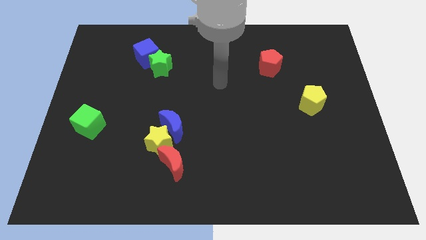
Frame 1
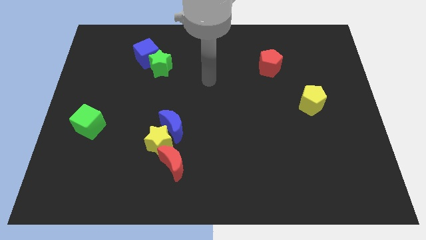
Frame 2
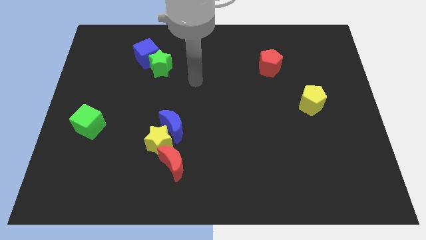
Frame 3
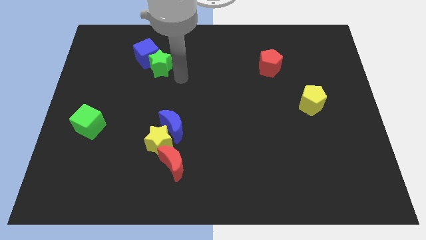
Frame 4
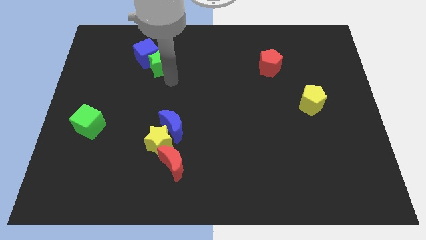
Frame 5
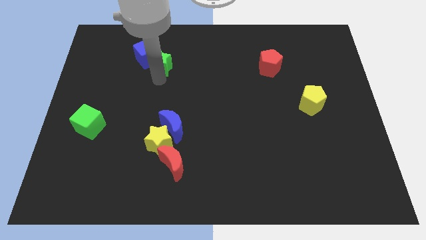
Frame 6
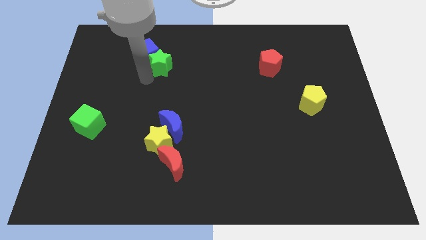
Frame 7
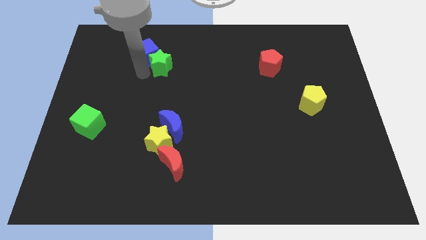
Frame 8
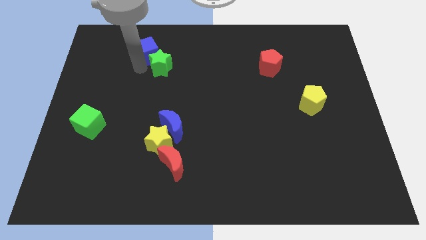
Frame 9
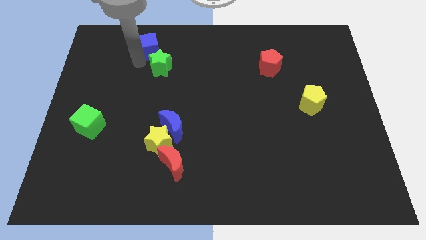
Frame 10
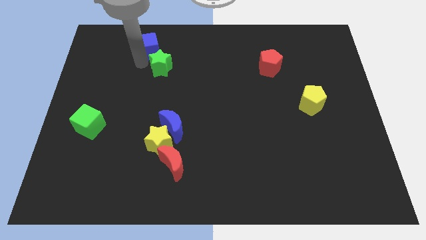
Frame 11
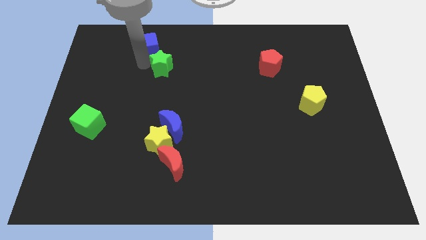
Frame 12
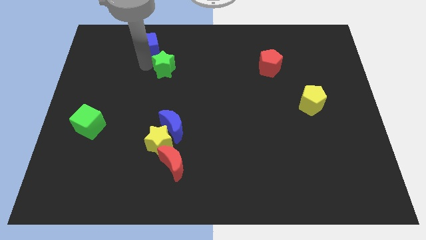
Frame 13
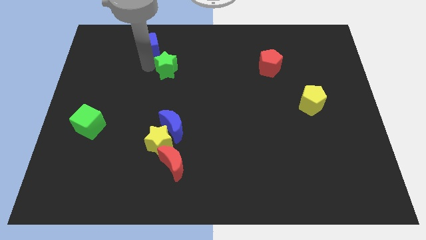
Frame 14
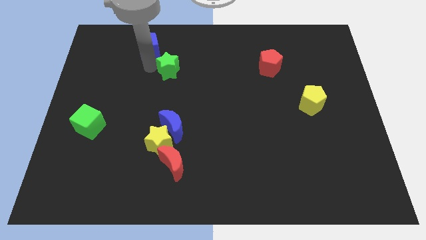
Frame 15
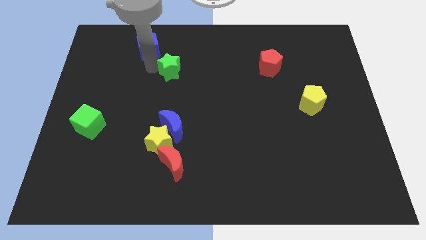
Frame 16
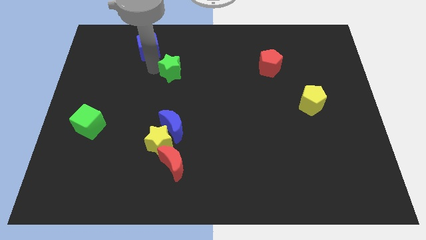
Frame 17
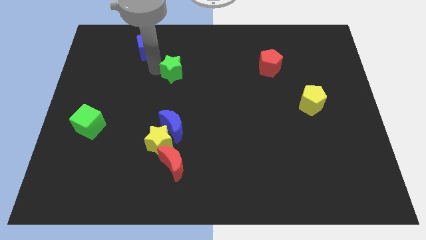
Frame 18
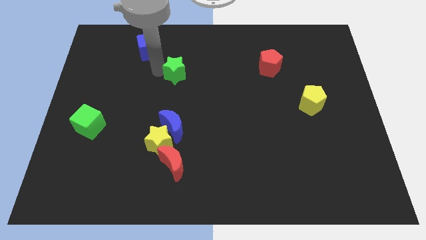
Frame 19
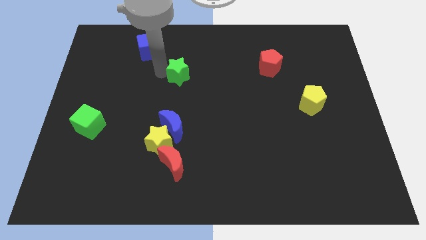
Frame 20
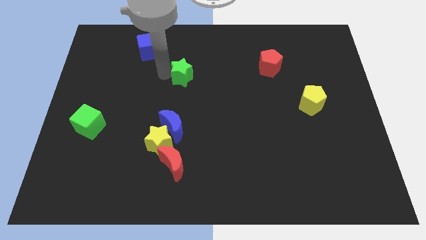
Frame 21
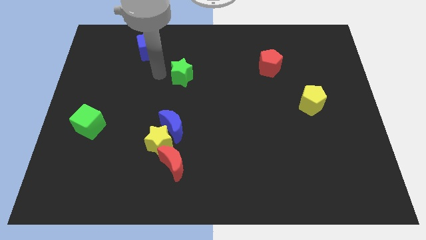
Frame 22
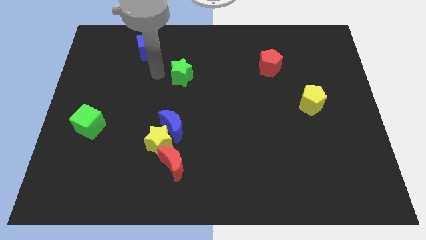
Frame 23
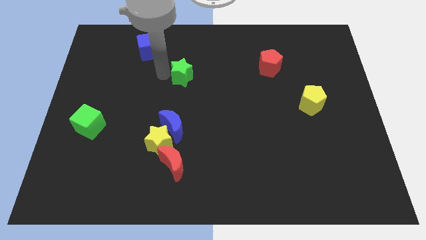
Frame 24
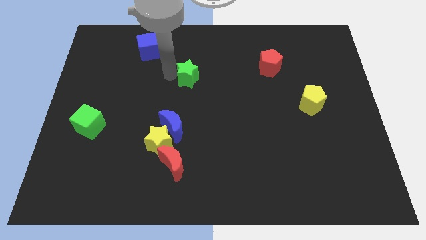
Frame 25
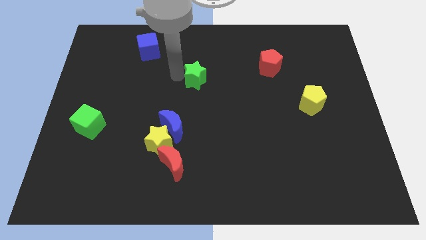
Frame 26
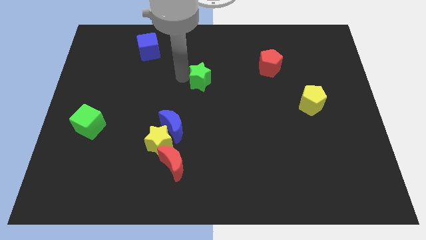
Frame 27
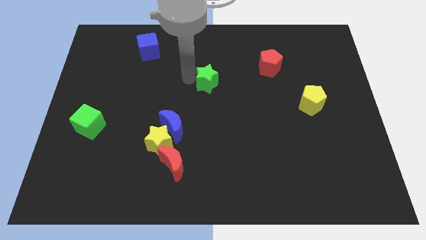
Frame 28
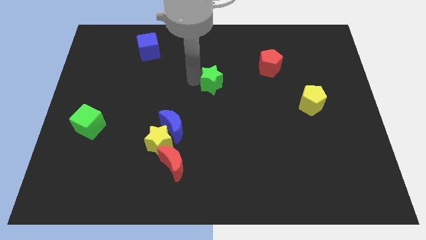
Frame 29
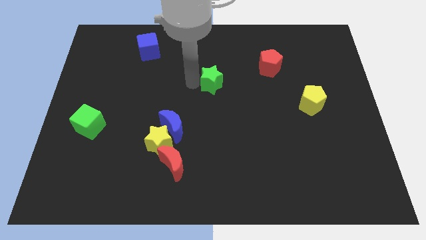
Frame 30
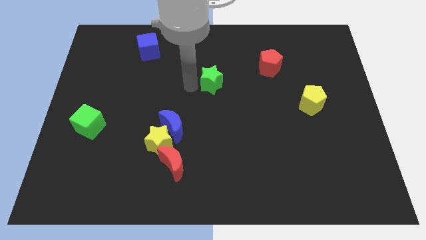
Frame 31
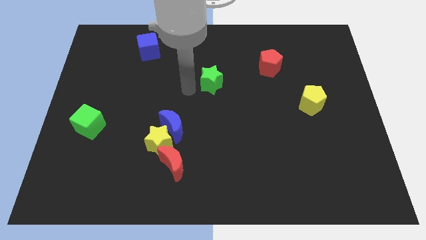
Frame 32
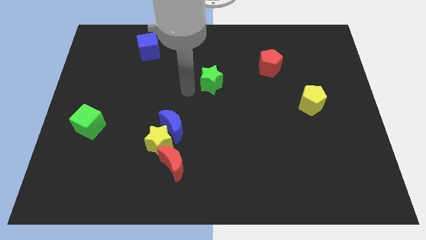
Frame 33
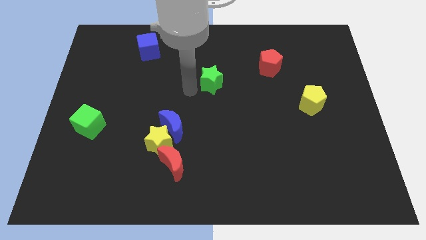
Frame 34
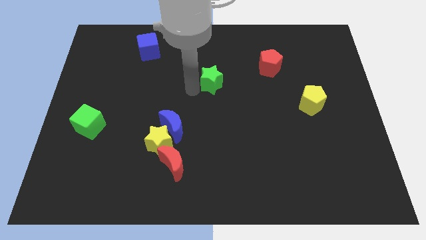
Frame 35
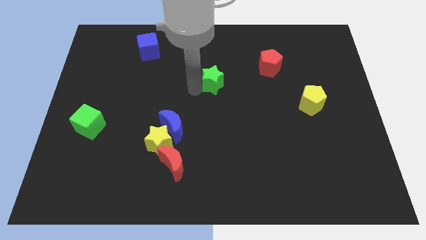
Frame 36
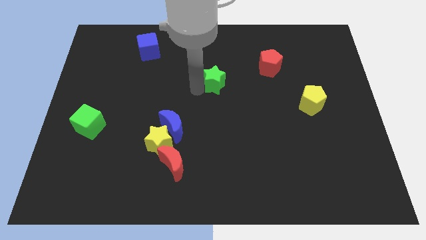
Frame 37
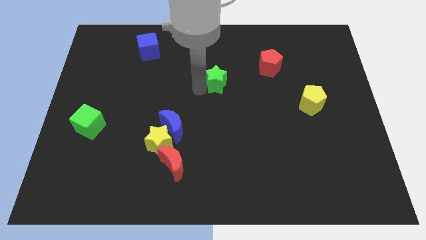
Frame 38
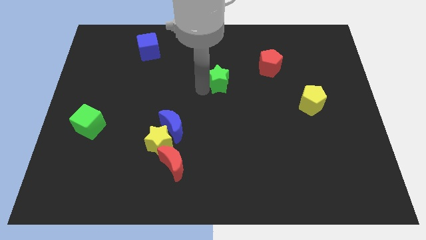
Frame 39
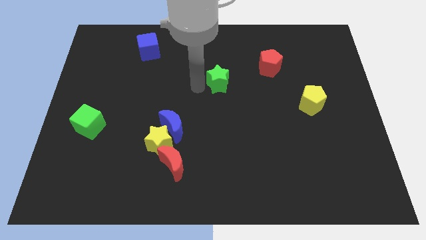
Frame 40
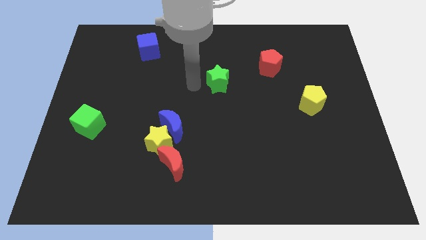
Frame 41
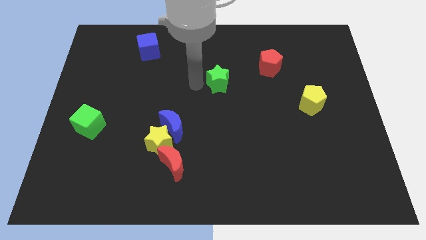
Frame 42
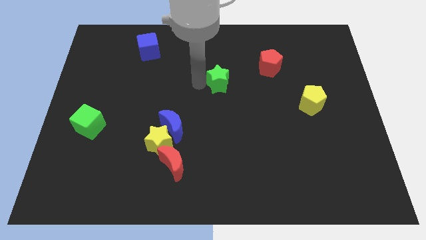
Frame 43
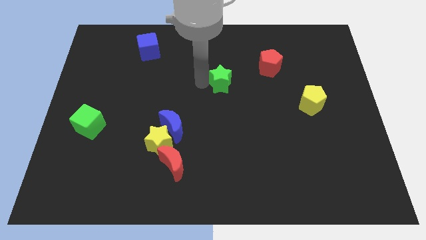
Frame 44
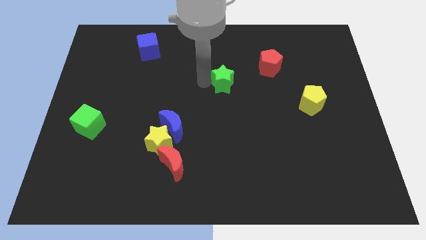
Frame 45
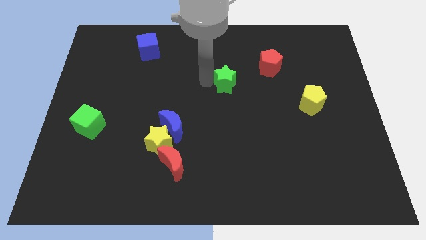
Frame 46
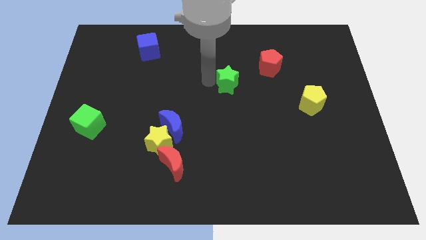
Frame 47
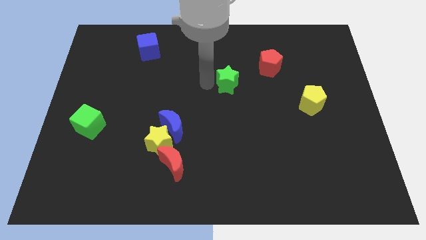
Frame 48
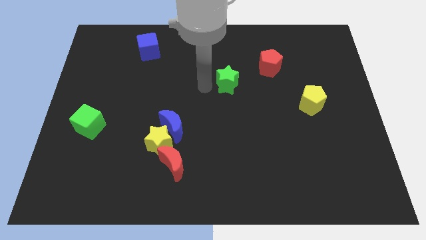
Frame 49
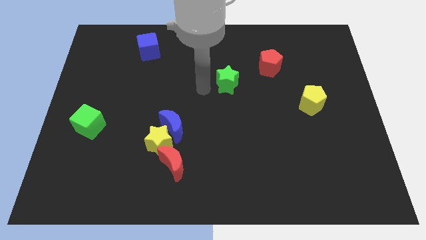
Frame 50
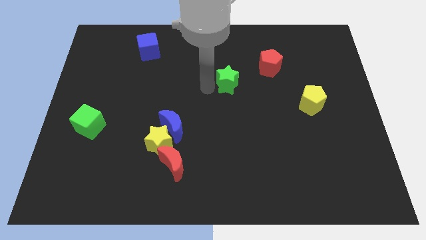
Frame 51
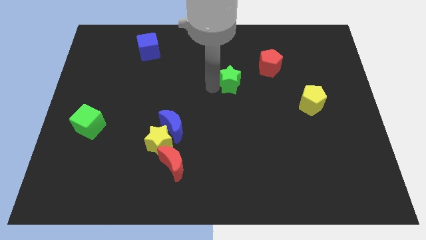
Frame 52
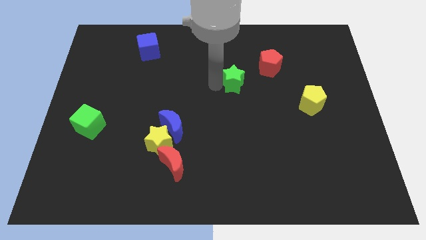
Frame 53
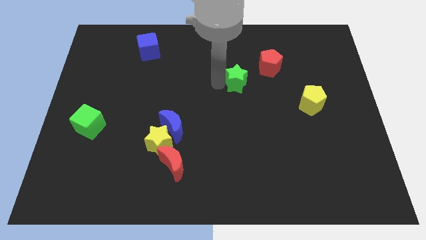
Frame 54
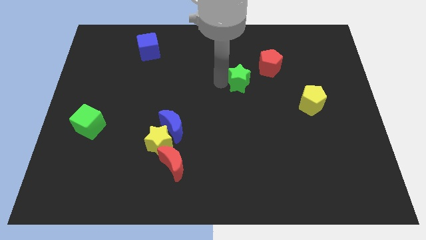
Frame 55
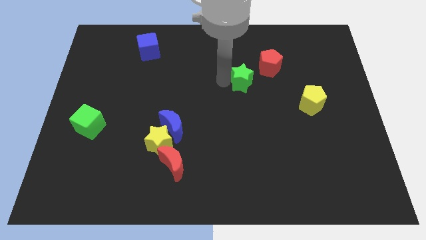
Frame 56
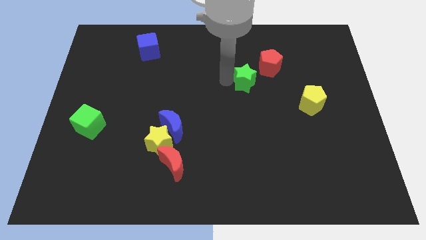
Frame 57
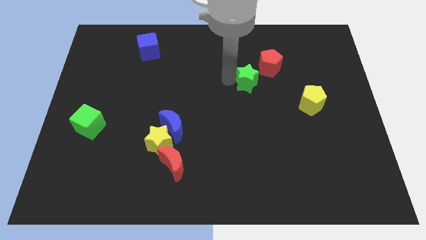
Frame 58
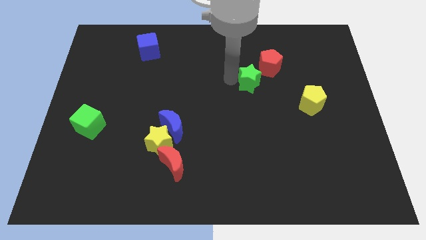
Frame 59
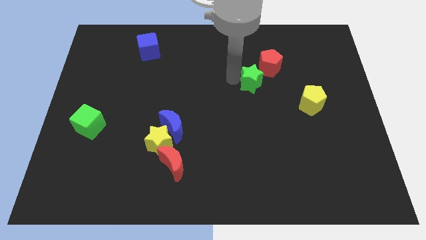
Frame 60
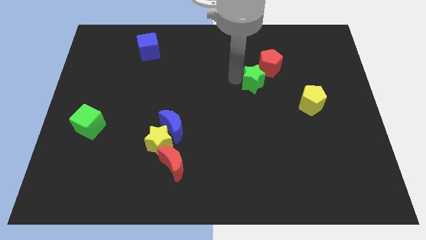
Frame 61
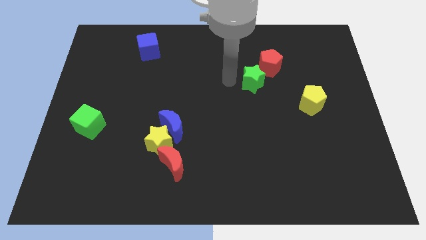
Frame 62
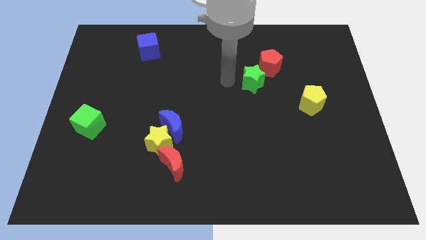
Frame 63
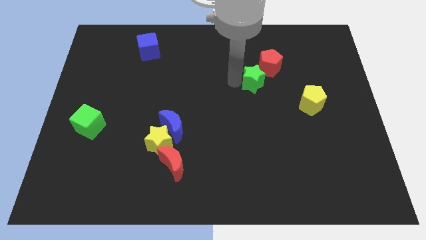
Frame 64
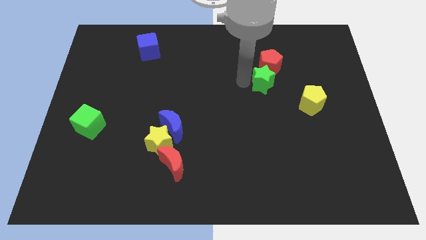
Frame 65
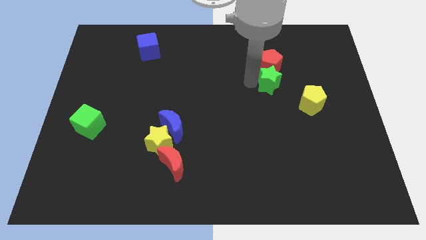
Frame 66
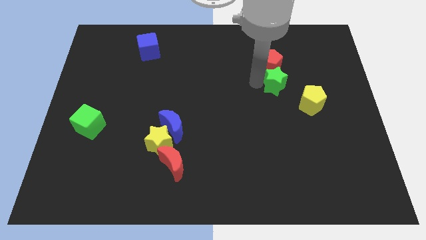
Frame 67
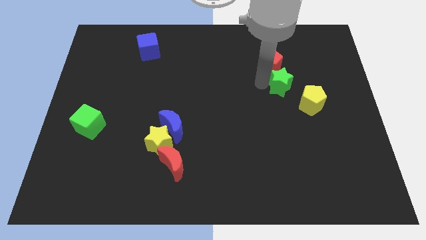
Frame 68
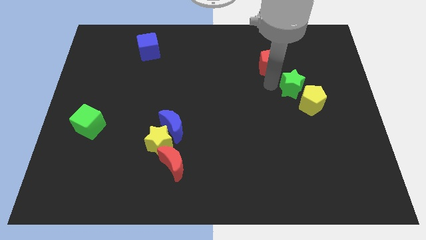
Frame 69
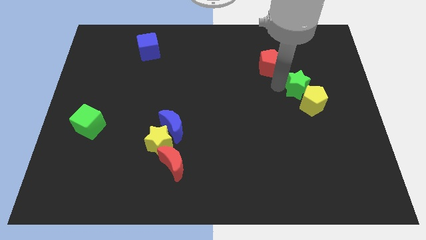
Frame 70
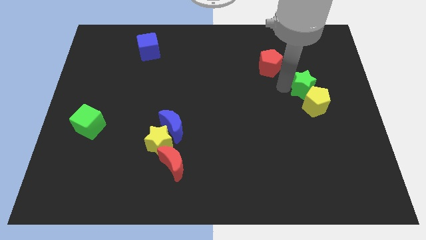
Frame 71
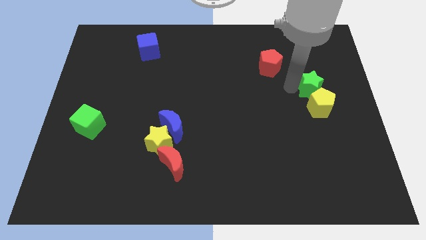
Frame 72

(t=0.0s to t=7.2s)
push the green star to the top right of the yellow pentagon
